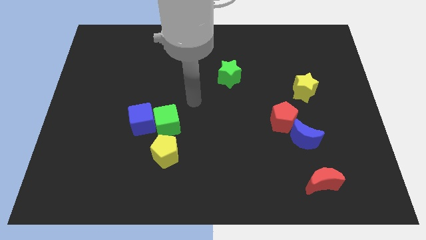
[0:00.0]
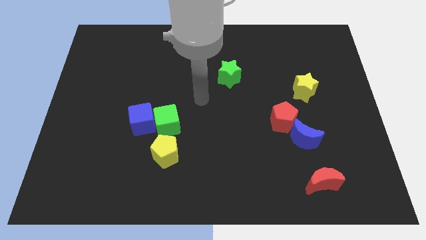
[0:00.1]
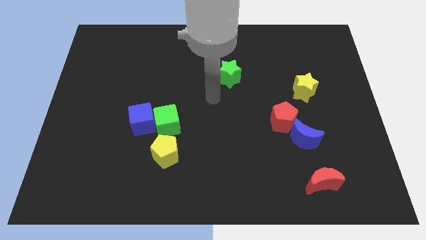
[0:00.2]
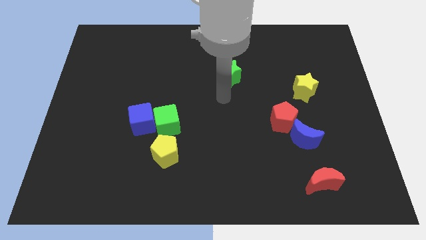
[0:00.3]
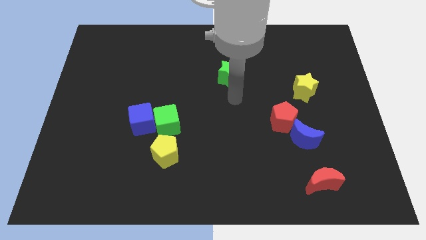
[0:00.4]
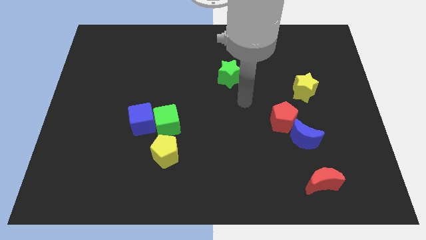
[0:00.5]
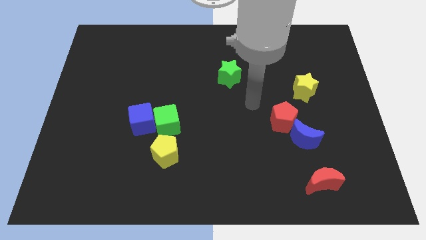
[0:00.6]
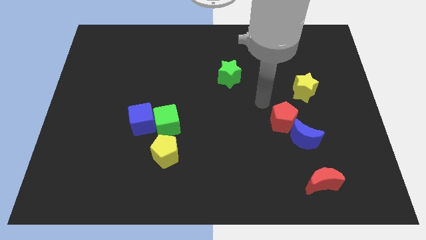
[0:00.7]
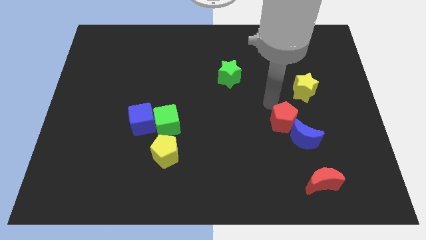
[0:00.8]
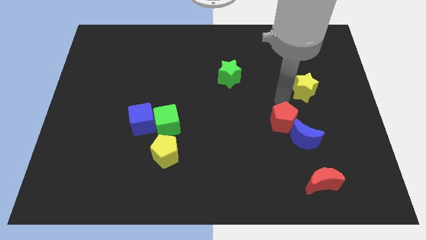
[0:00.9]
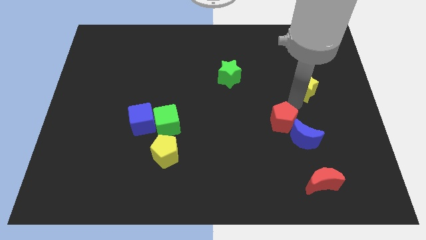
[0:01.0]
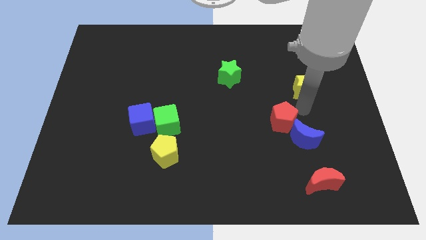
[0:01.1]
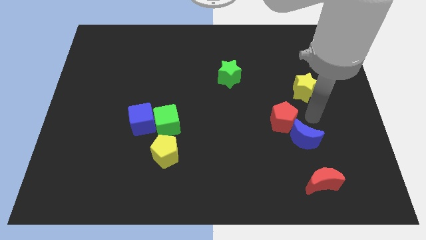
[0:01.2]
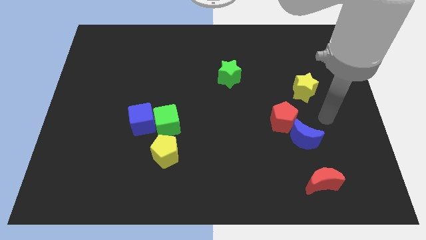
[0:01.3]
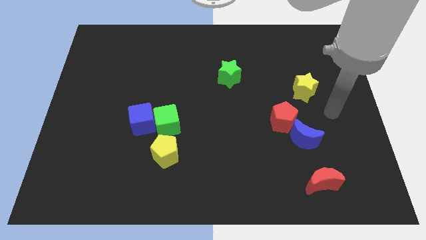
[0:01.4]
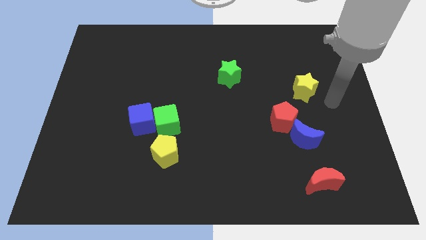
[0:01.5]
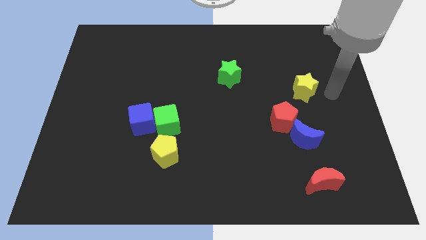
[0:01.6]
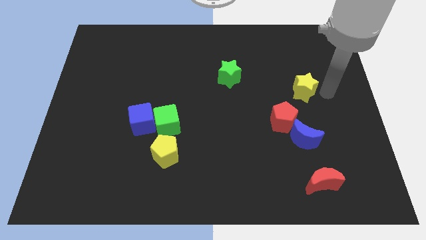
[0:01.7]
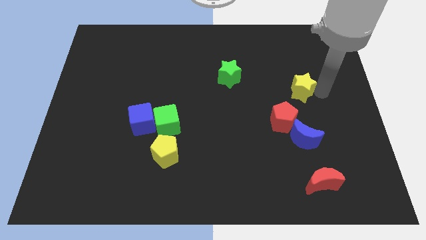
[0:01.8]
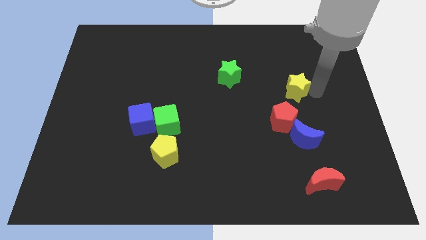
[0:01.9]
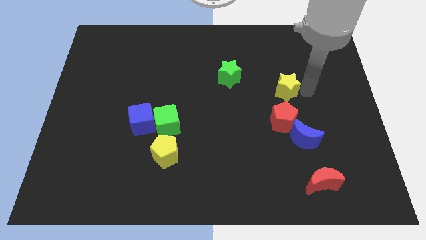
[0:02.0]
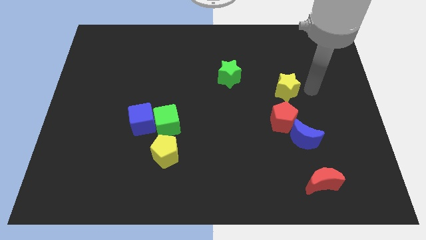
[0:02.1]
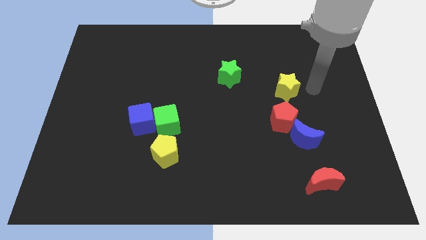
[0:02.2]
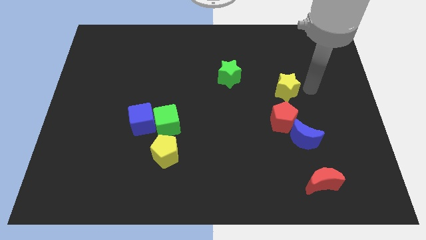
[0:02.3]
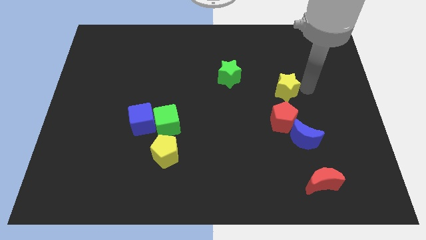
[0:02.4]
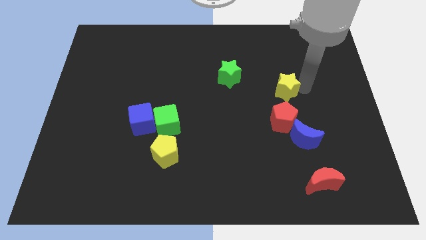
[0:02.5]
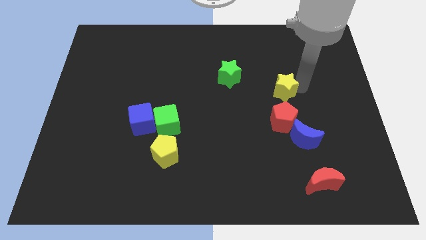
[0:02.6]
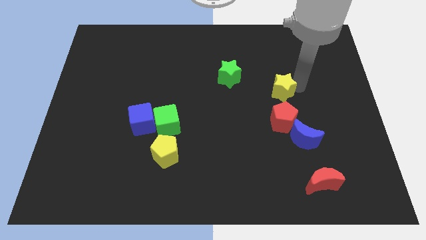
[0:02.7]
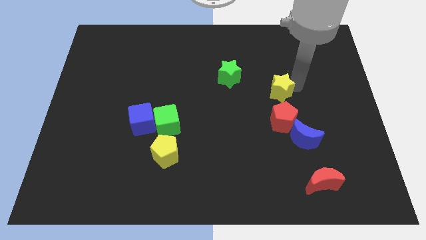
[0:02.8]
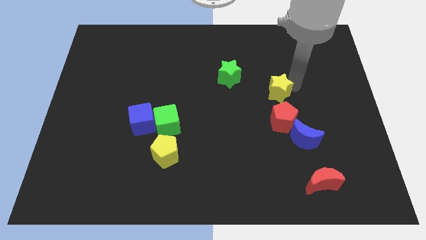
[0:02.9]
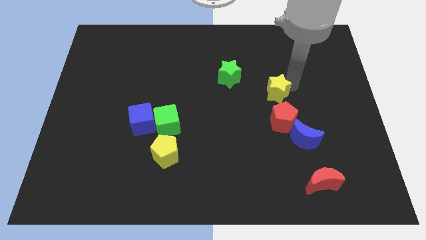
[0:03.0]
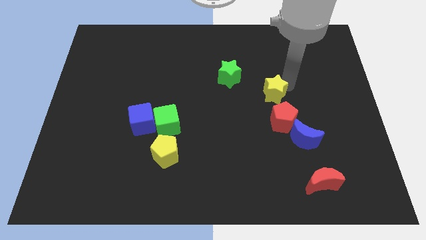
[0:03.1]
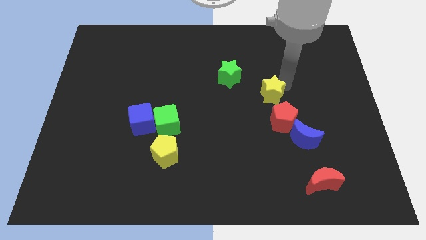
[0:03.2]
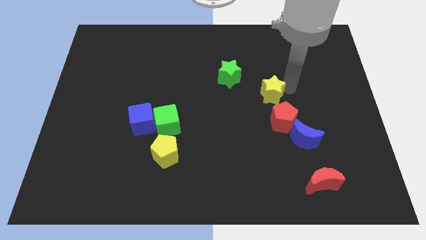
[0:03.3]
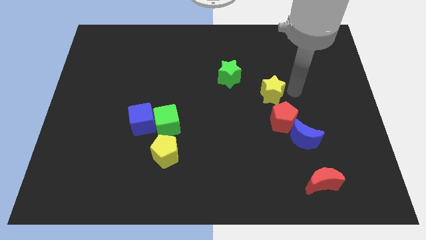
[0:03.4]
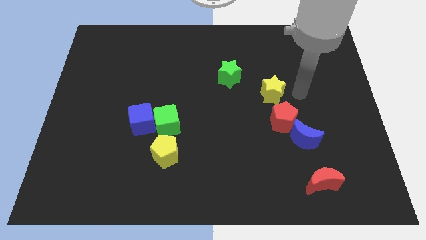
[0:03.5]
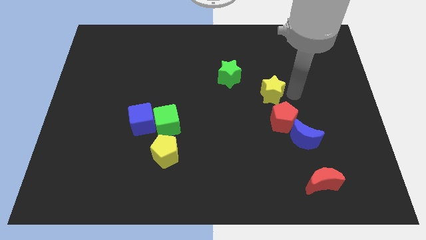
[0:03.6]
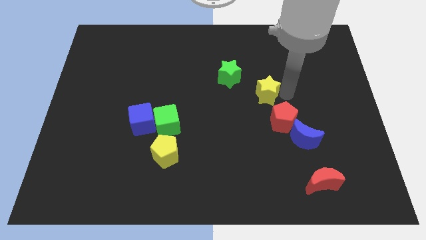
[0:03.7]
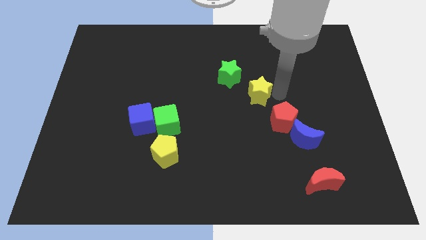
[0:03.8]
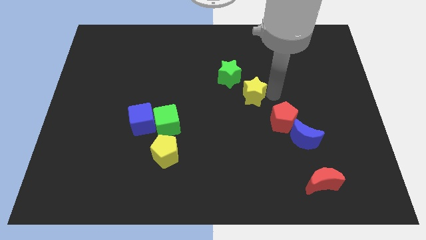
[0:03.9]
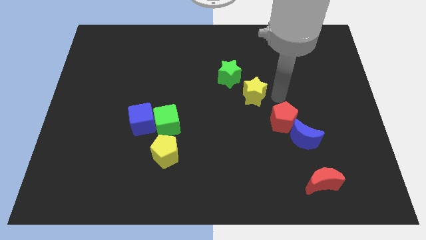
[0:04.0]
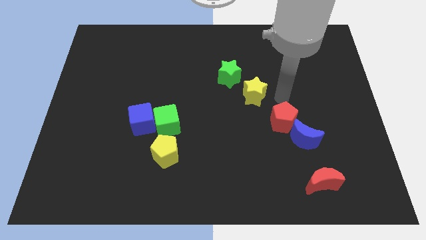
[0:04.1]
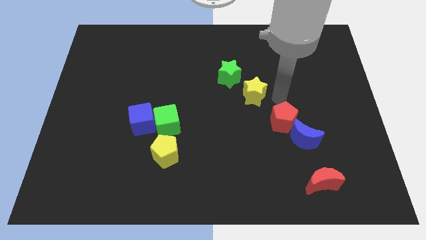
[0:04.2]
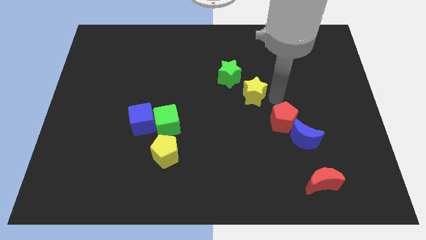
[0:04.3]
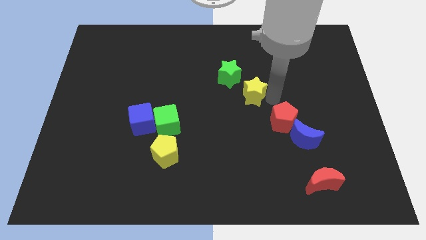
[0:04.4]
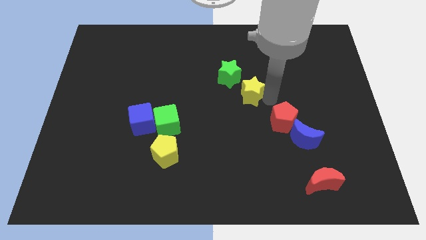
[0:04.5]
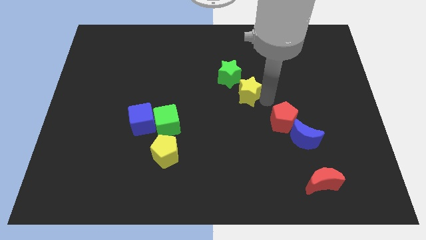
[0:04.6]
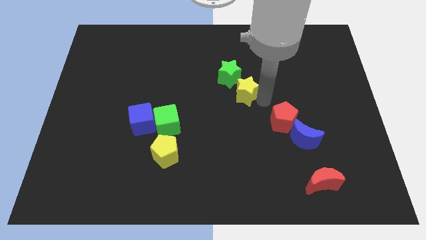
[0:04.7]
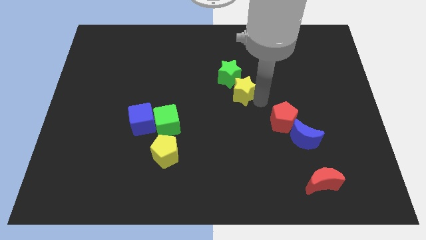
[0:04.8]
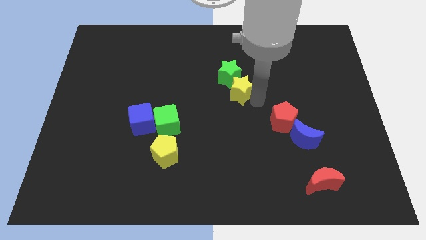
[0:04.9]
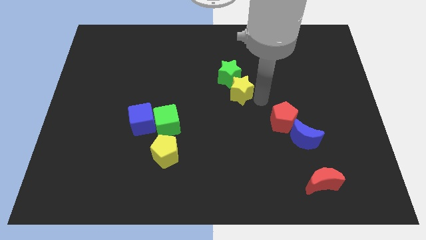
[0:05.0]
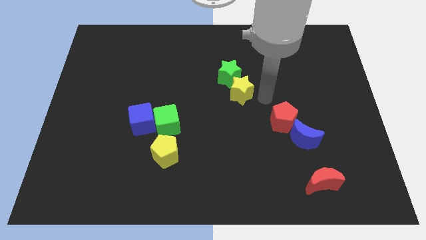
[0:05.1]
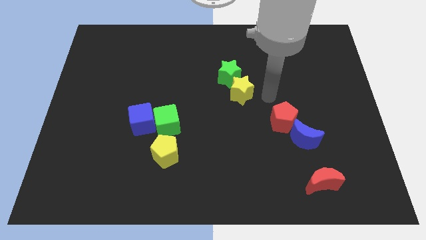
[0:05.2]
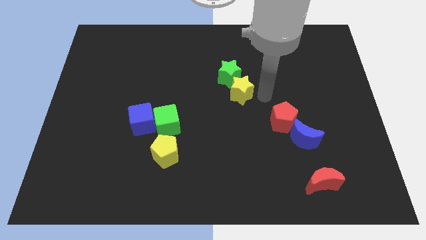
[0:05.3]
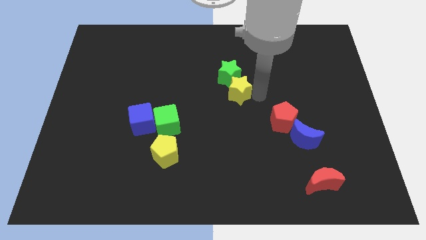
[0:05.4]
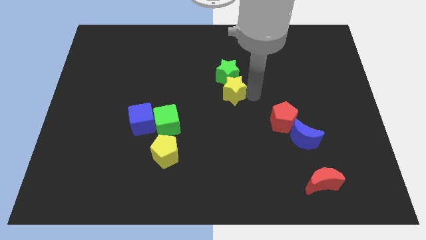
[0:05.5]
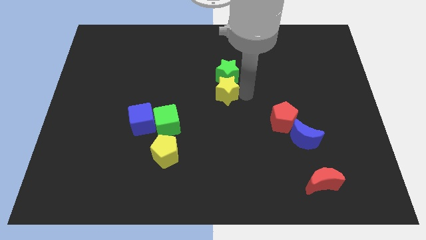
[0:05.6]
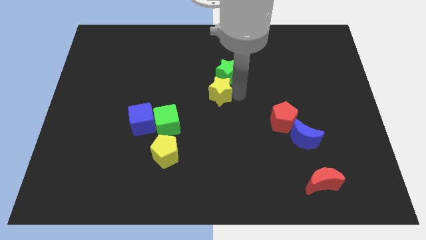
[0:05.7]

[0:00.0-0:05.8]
push the yellow star to the left

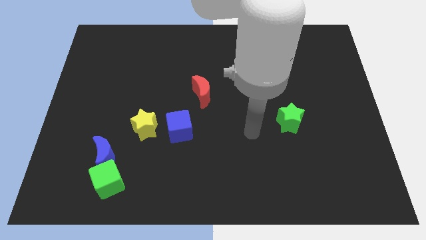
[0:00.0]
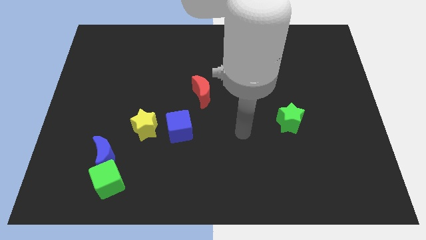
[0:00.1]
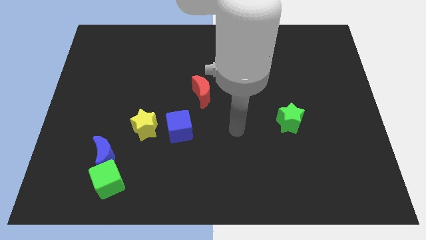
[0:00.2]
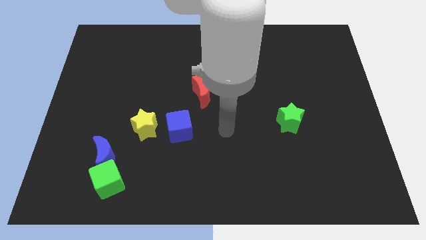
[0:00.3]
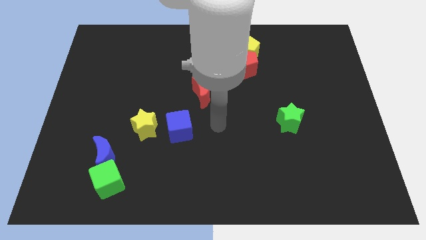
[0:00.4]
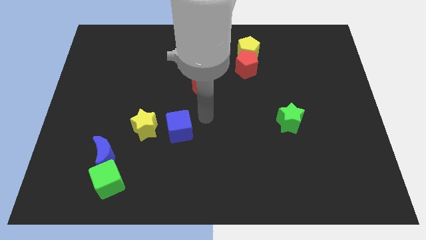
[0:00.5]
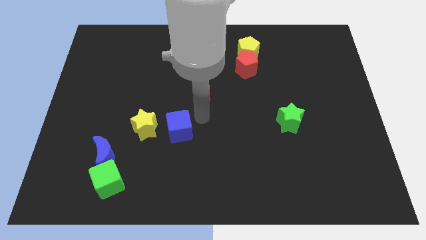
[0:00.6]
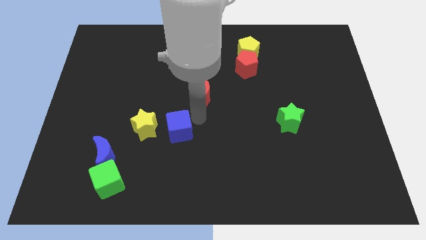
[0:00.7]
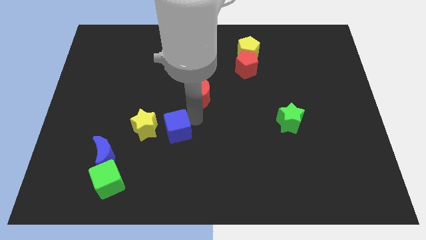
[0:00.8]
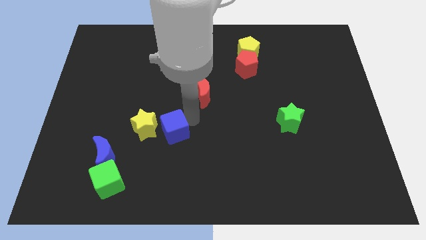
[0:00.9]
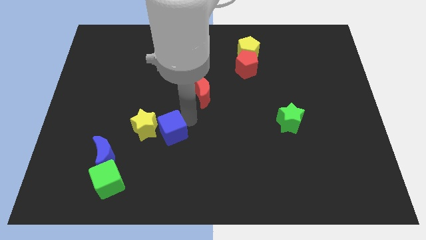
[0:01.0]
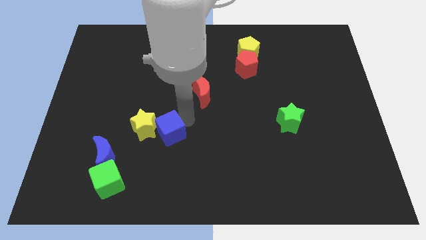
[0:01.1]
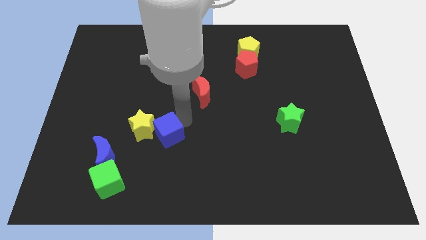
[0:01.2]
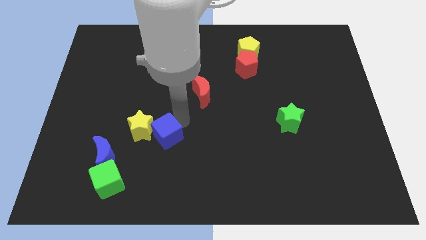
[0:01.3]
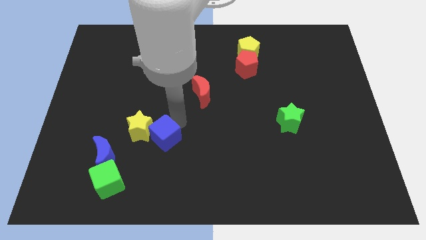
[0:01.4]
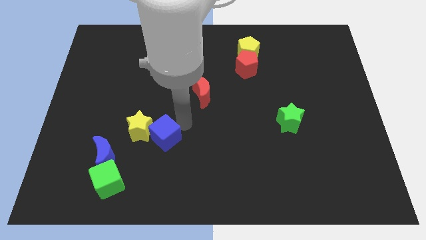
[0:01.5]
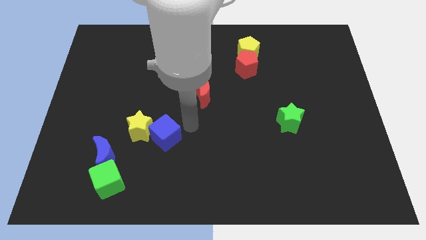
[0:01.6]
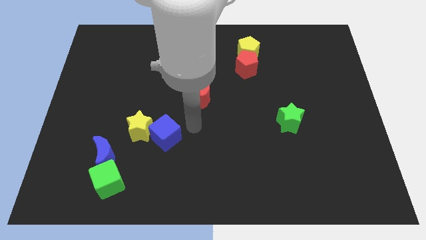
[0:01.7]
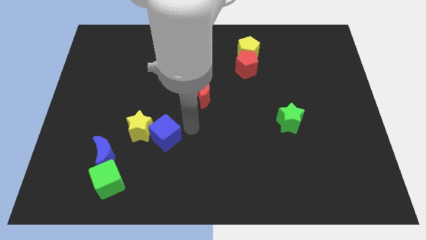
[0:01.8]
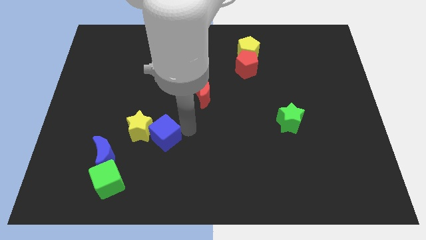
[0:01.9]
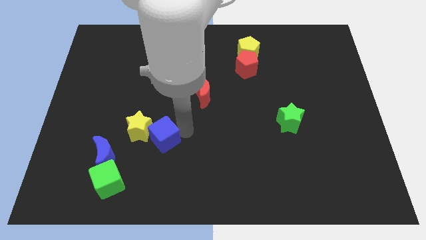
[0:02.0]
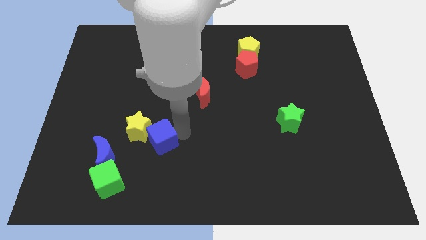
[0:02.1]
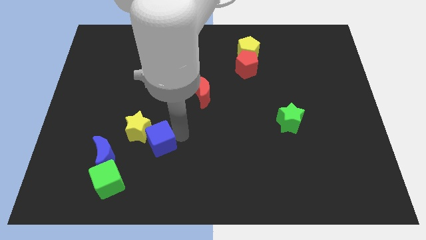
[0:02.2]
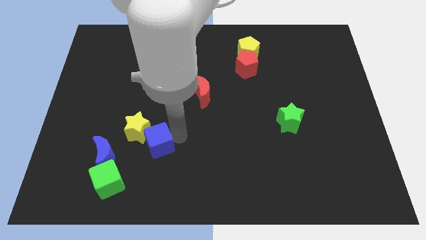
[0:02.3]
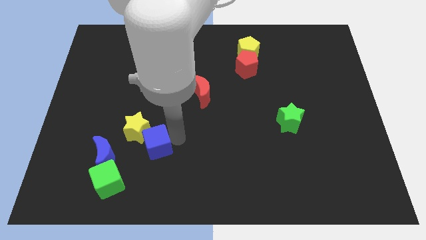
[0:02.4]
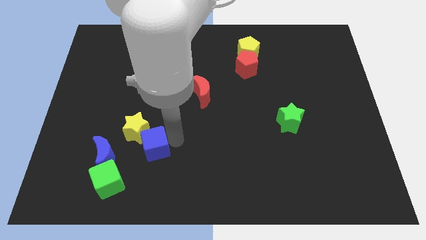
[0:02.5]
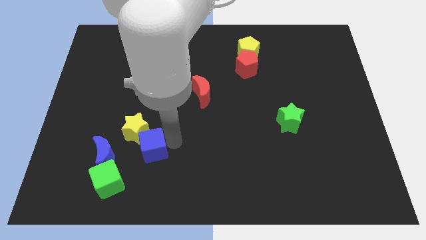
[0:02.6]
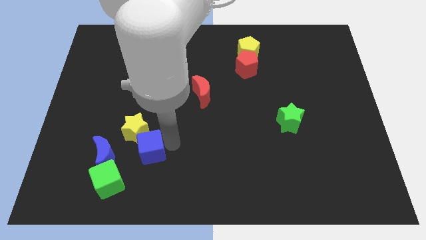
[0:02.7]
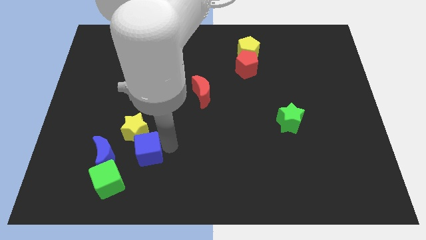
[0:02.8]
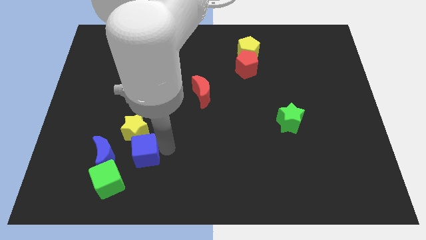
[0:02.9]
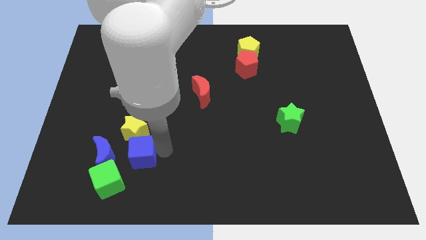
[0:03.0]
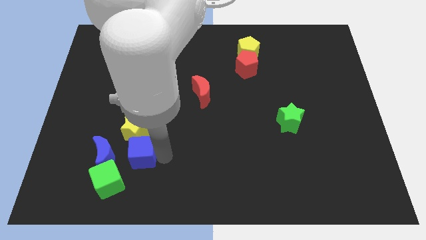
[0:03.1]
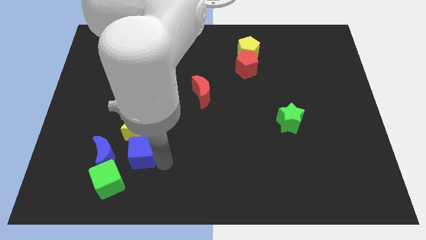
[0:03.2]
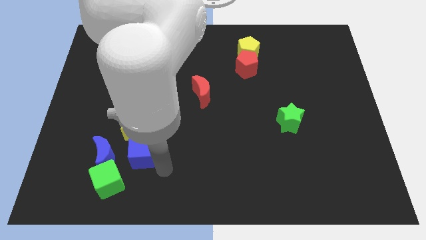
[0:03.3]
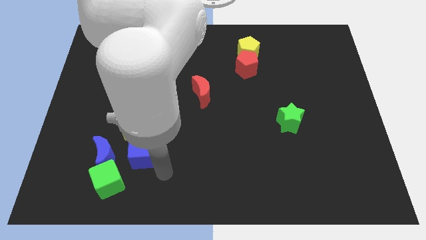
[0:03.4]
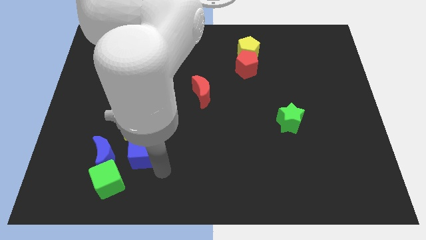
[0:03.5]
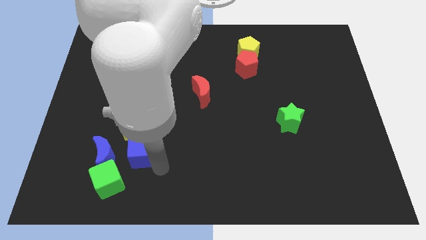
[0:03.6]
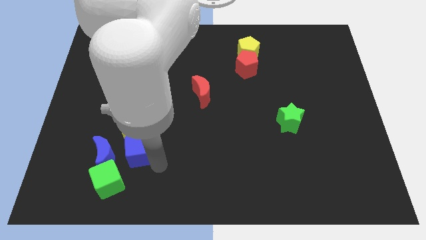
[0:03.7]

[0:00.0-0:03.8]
push the blue cube somewhat left
